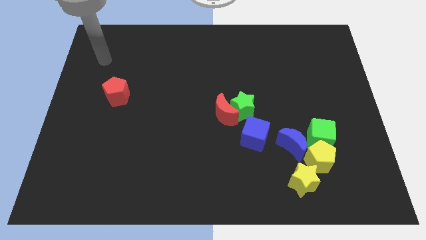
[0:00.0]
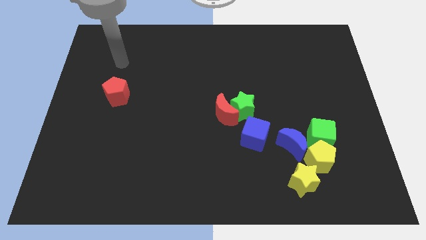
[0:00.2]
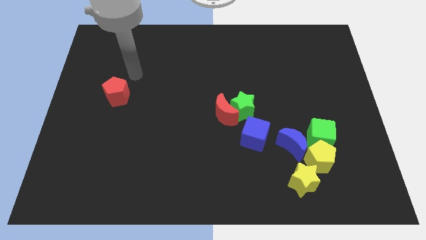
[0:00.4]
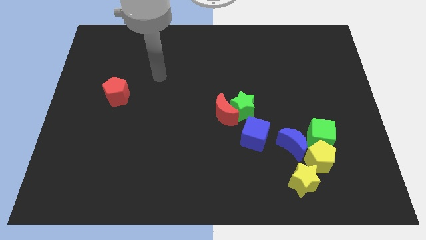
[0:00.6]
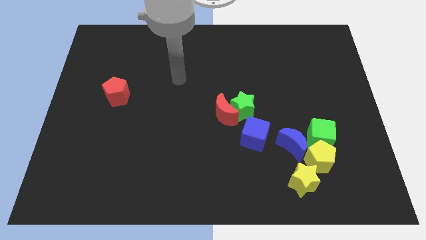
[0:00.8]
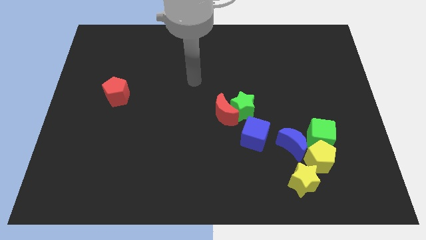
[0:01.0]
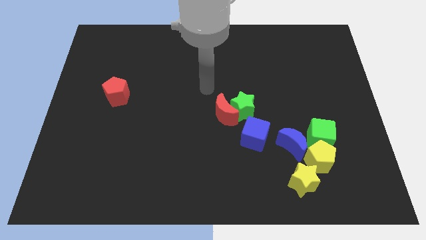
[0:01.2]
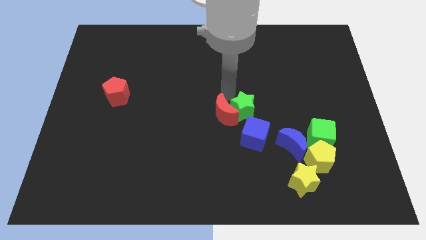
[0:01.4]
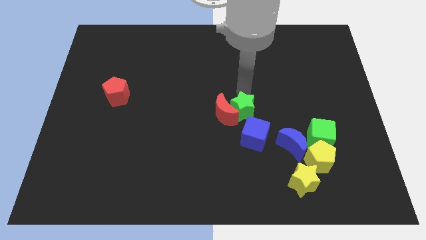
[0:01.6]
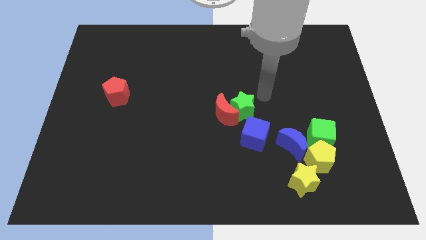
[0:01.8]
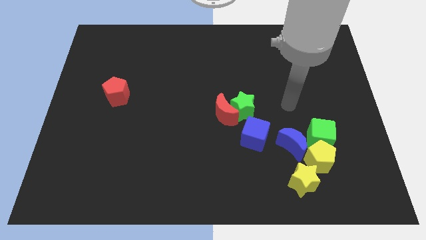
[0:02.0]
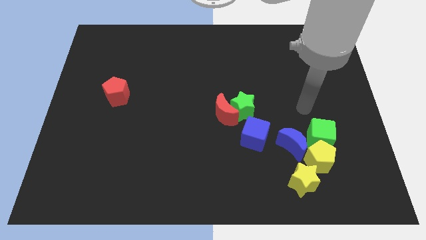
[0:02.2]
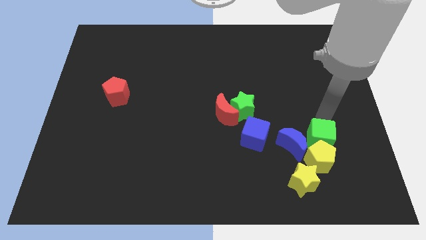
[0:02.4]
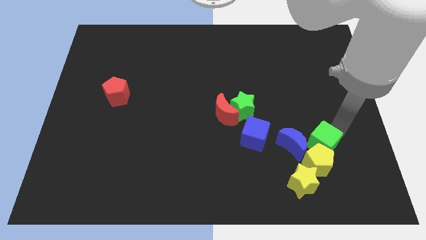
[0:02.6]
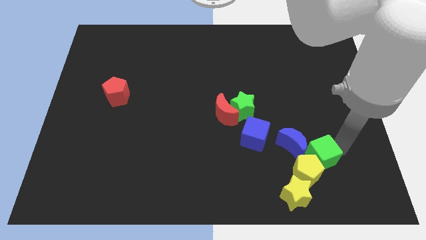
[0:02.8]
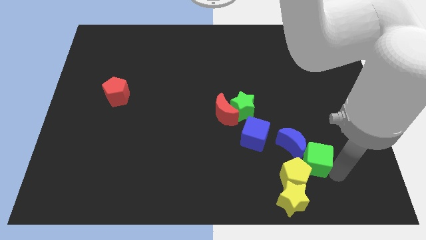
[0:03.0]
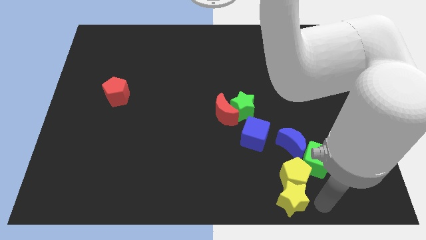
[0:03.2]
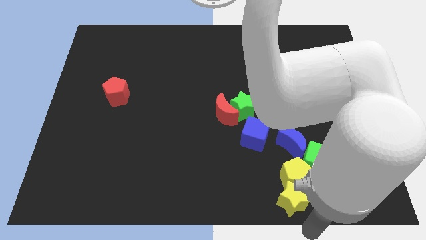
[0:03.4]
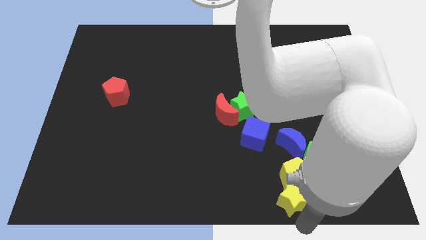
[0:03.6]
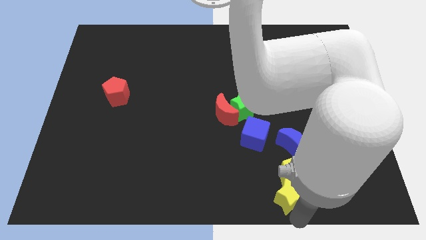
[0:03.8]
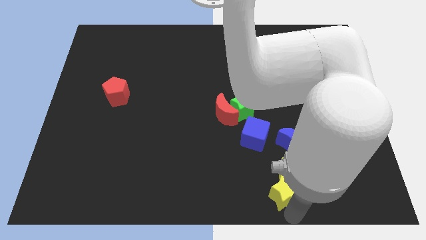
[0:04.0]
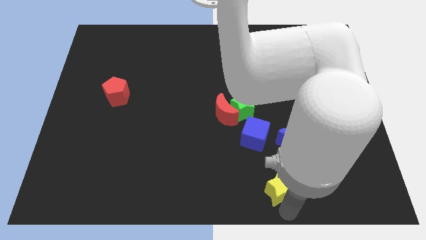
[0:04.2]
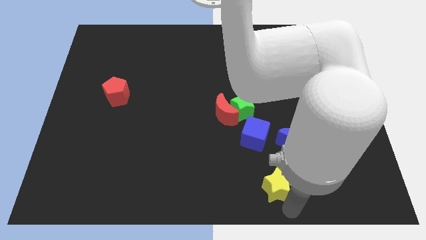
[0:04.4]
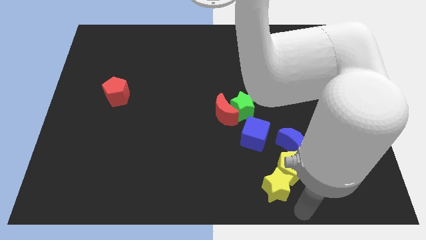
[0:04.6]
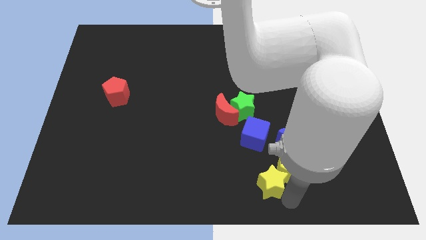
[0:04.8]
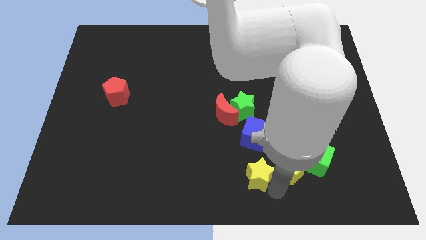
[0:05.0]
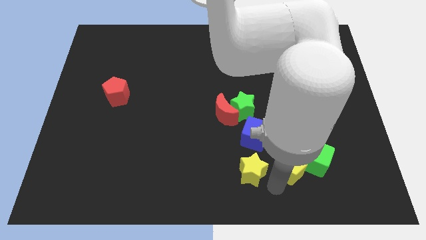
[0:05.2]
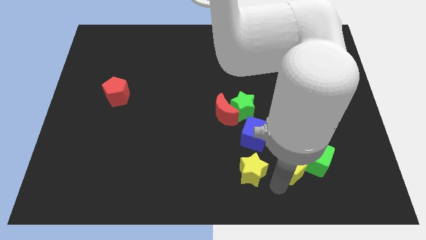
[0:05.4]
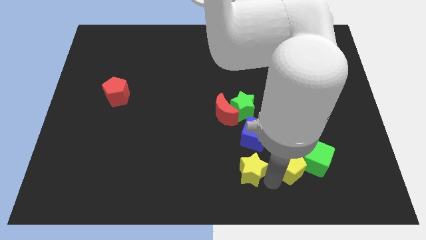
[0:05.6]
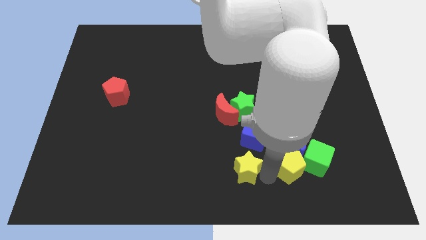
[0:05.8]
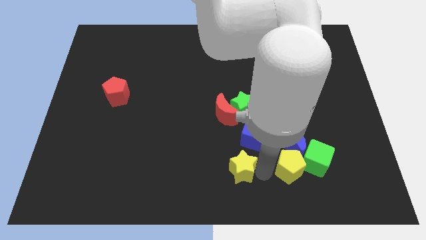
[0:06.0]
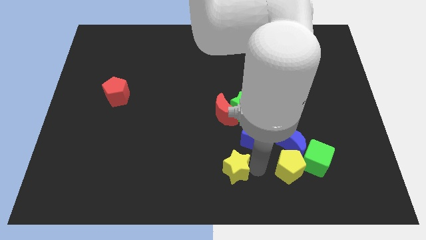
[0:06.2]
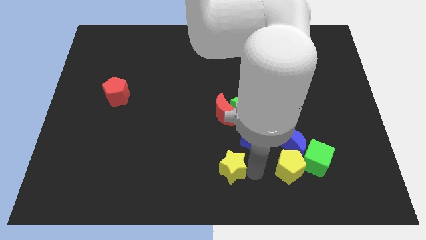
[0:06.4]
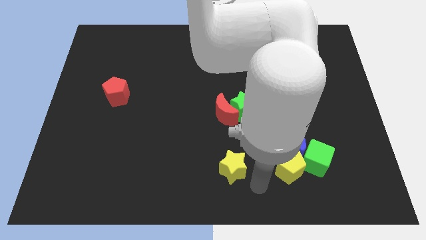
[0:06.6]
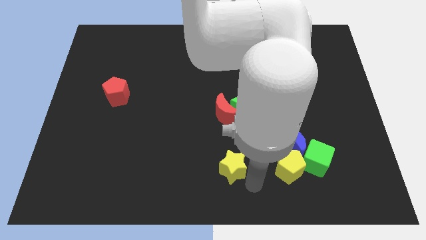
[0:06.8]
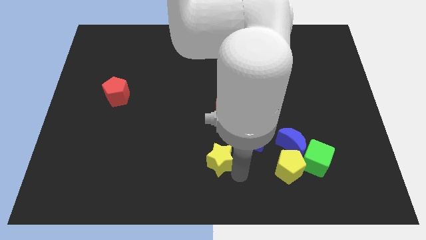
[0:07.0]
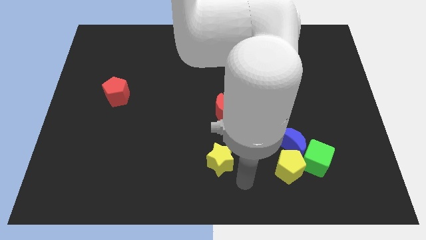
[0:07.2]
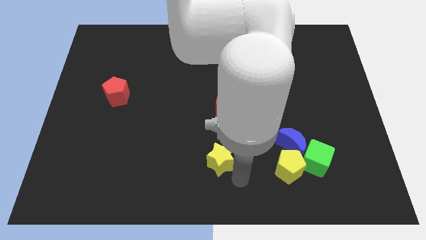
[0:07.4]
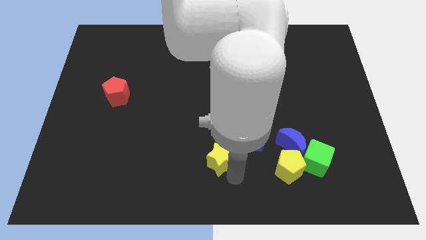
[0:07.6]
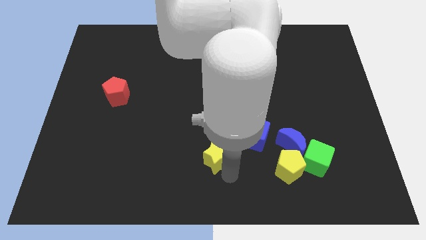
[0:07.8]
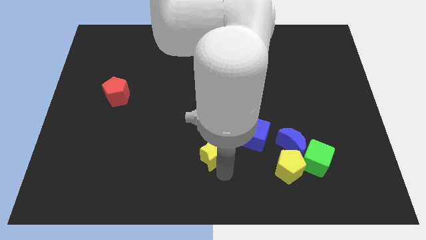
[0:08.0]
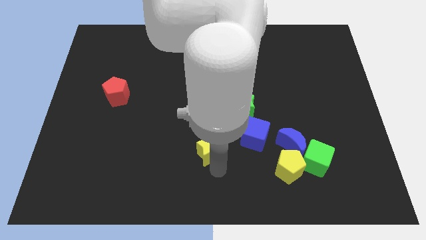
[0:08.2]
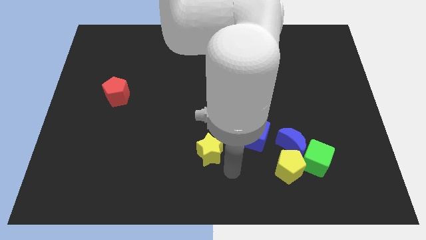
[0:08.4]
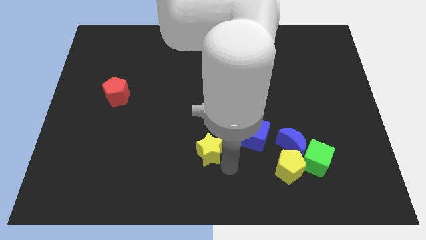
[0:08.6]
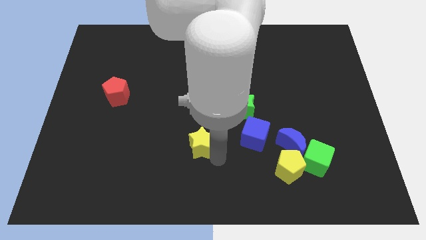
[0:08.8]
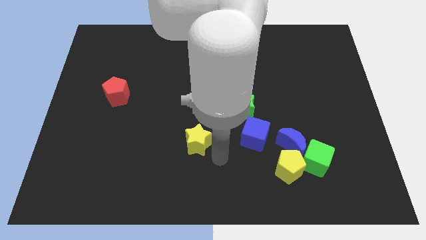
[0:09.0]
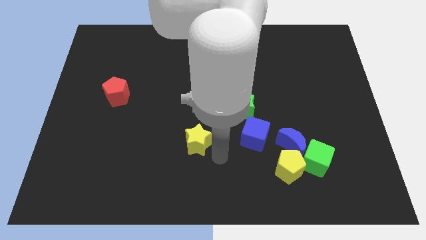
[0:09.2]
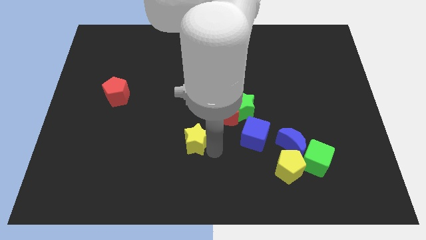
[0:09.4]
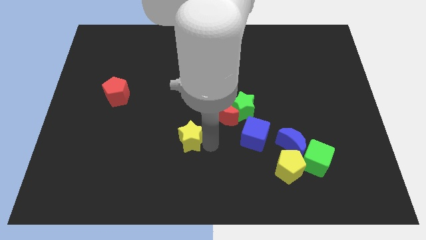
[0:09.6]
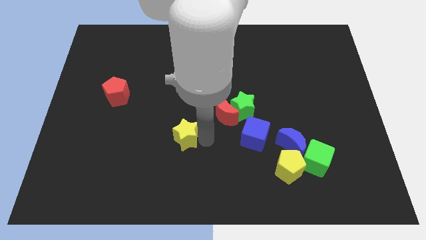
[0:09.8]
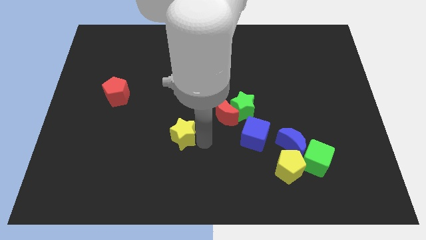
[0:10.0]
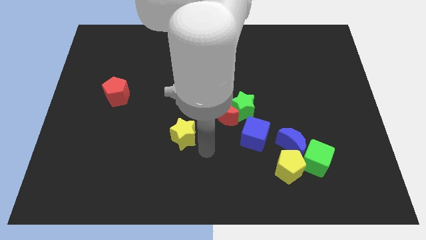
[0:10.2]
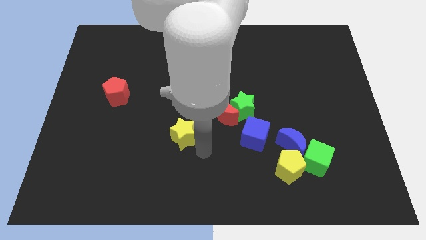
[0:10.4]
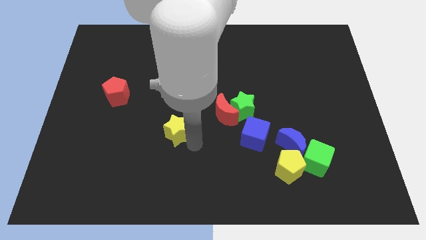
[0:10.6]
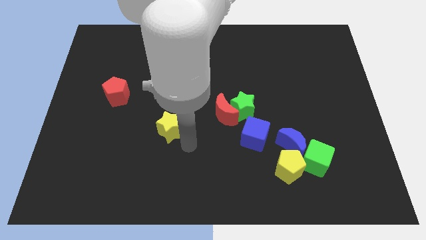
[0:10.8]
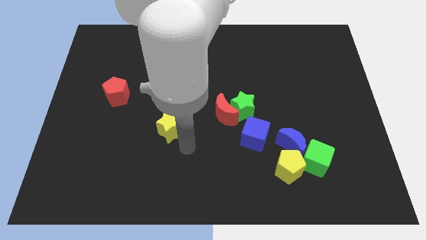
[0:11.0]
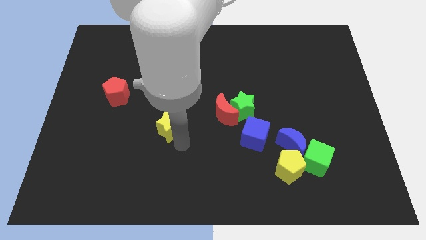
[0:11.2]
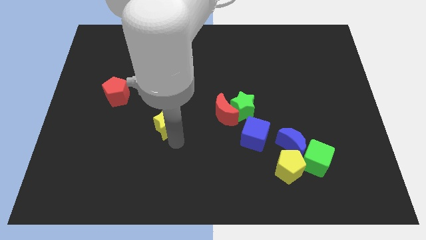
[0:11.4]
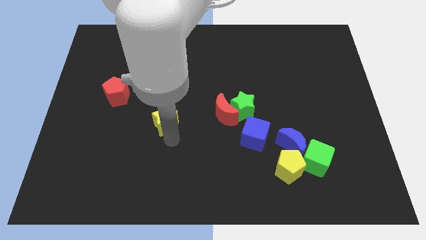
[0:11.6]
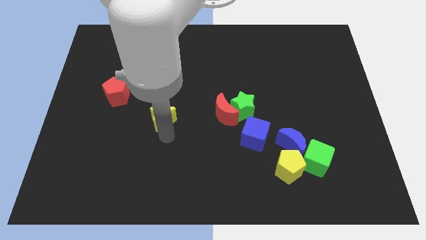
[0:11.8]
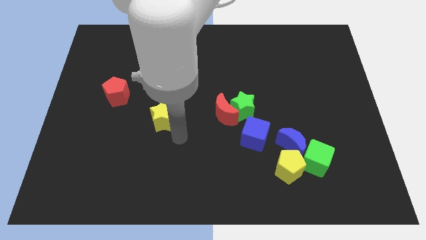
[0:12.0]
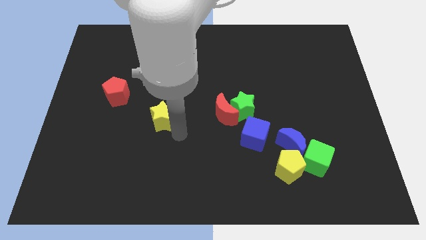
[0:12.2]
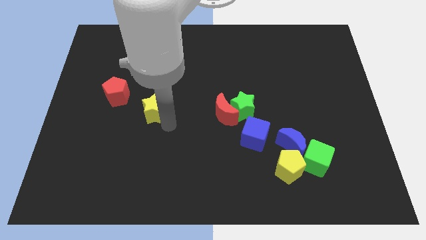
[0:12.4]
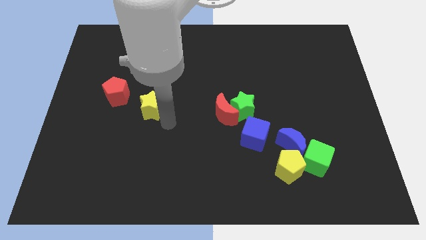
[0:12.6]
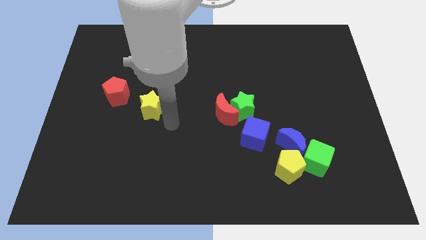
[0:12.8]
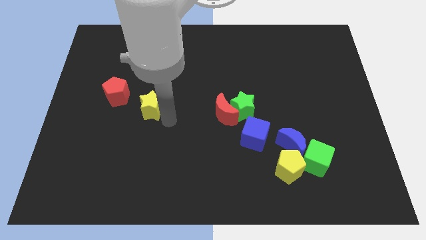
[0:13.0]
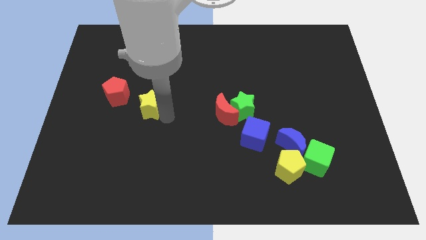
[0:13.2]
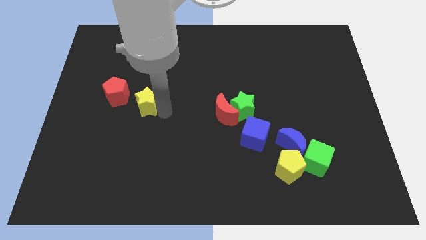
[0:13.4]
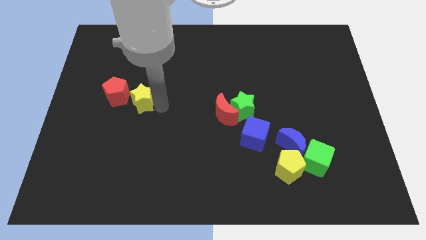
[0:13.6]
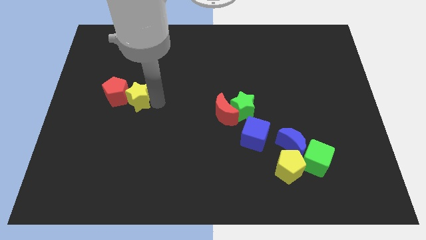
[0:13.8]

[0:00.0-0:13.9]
slide the yellow star close to the red pentagon

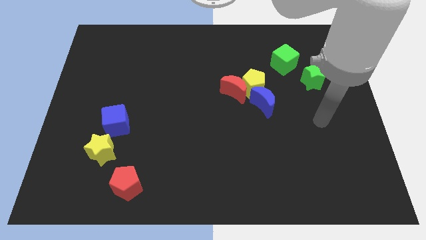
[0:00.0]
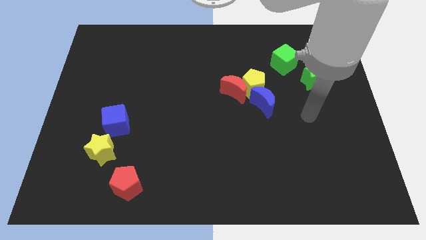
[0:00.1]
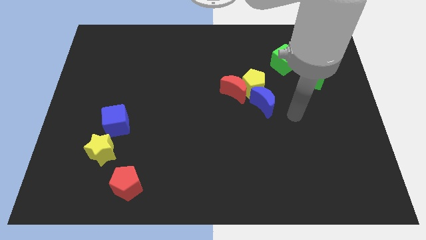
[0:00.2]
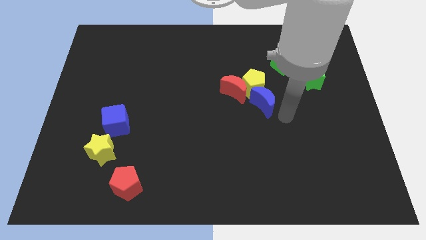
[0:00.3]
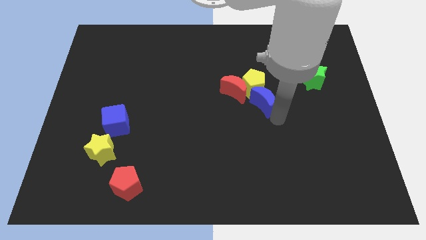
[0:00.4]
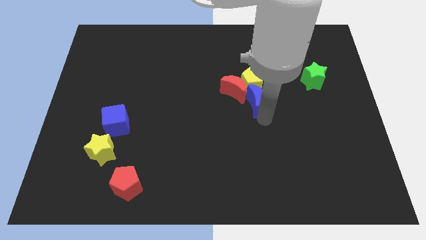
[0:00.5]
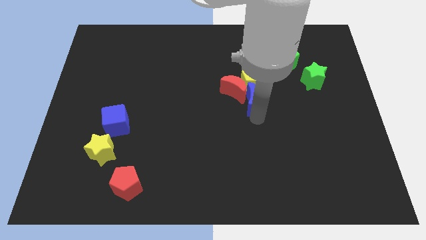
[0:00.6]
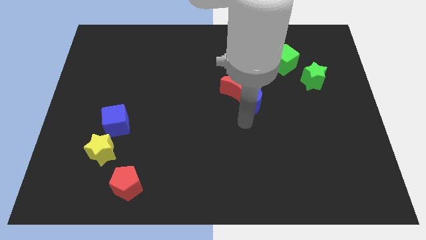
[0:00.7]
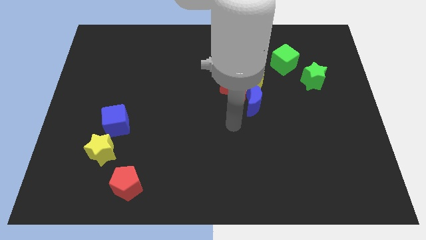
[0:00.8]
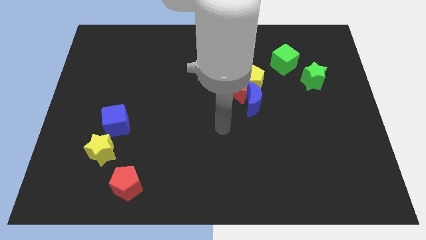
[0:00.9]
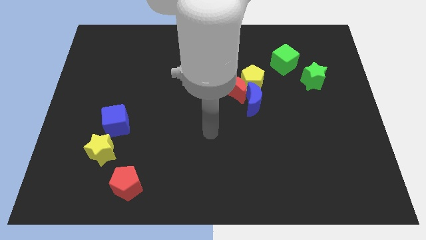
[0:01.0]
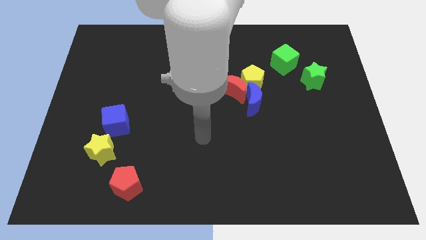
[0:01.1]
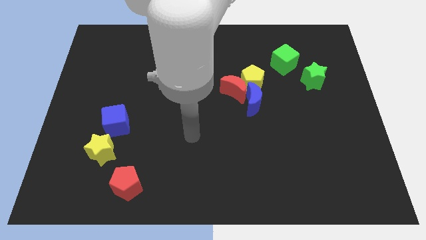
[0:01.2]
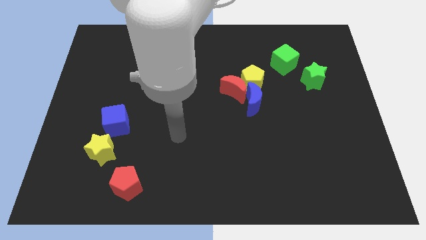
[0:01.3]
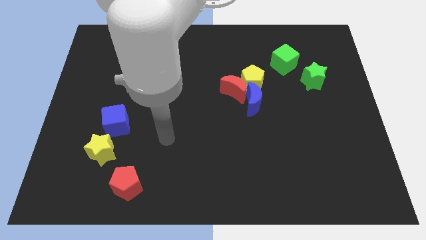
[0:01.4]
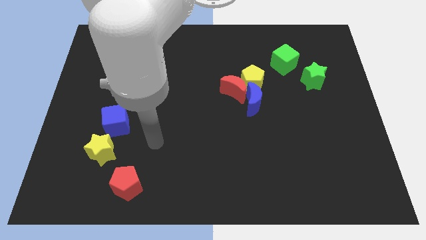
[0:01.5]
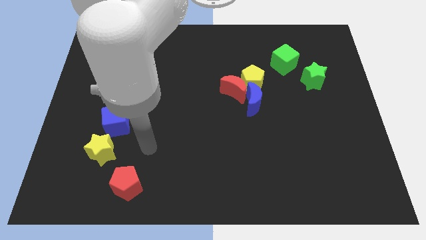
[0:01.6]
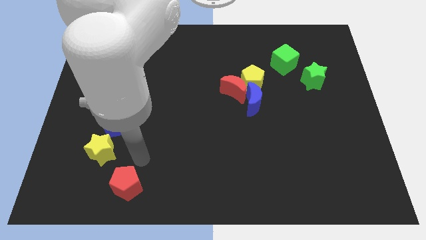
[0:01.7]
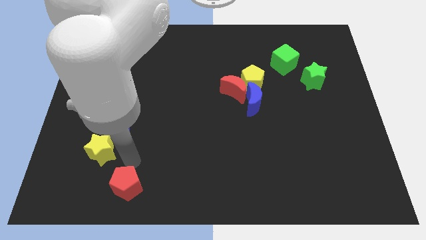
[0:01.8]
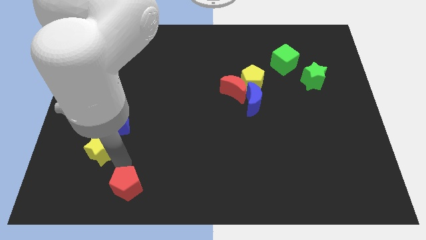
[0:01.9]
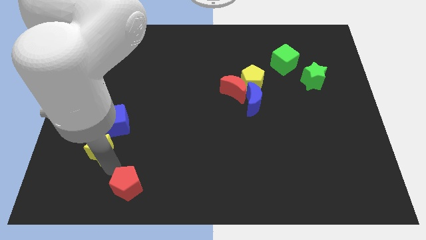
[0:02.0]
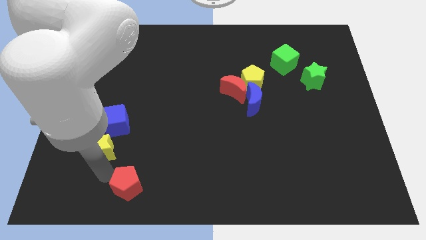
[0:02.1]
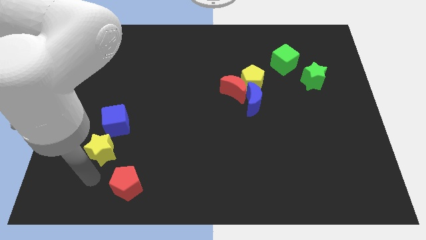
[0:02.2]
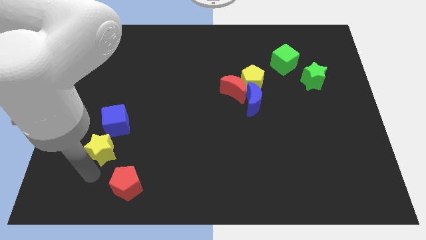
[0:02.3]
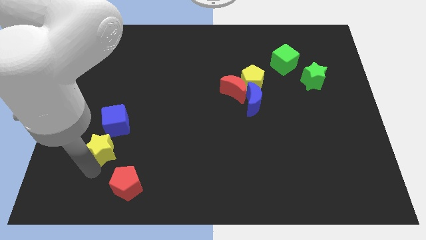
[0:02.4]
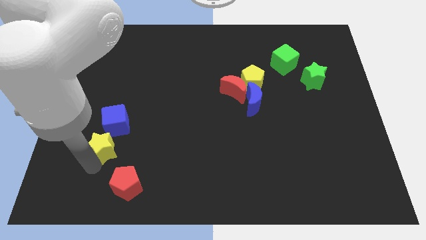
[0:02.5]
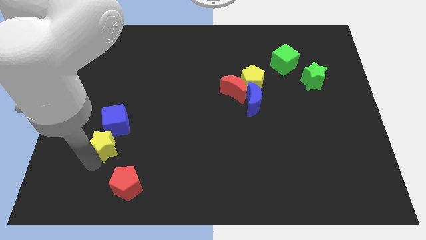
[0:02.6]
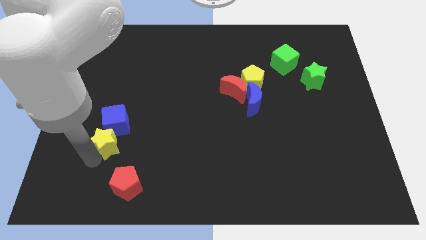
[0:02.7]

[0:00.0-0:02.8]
slide the yellow star next to the blue cube
